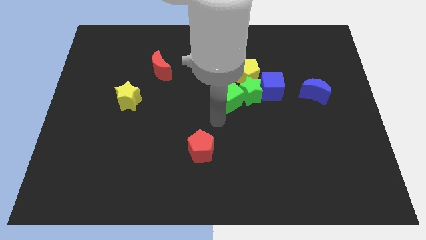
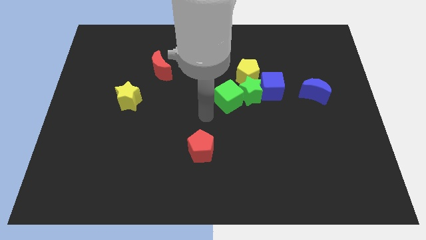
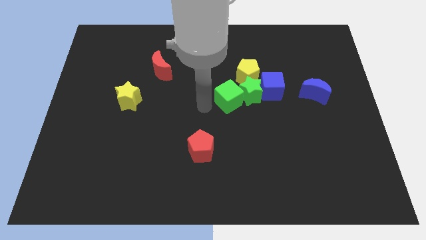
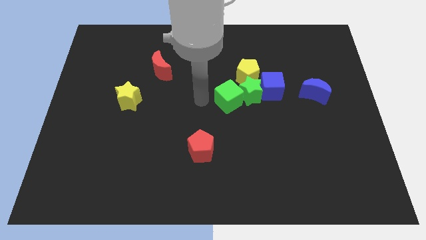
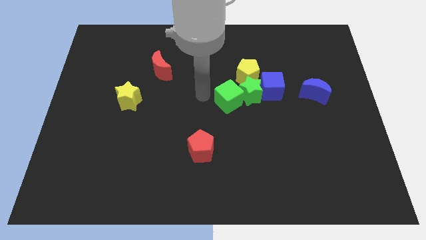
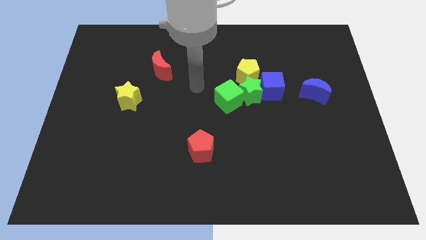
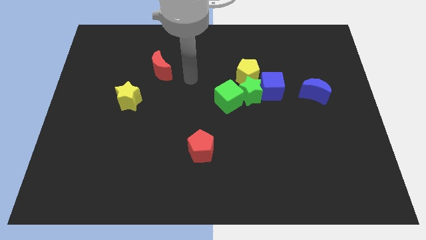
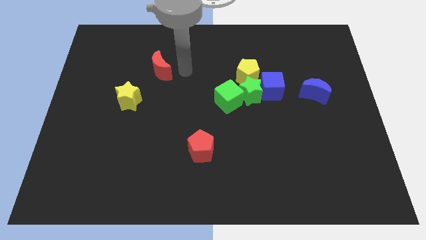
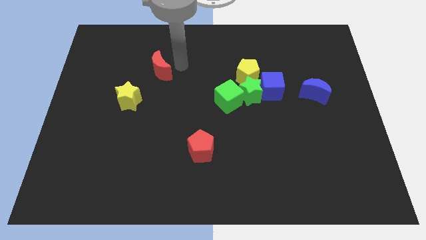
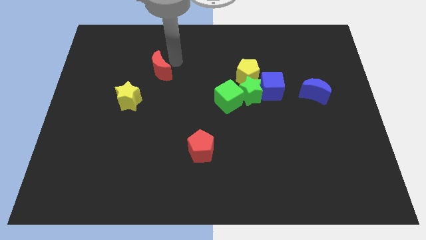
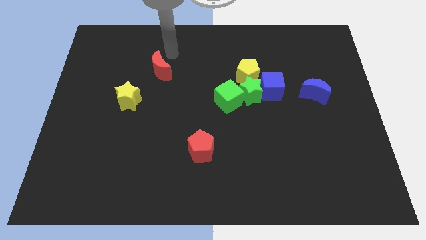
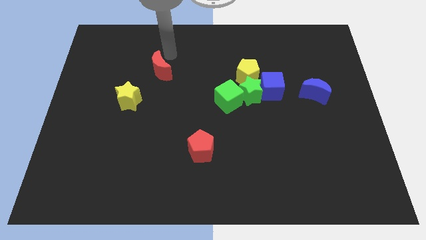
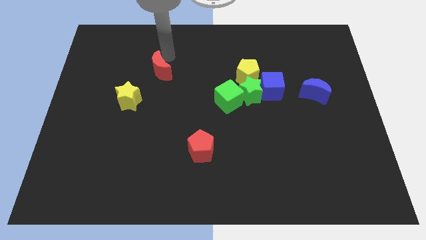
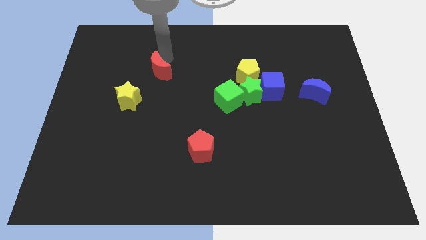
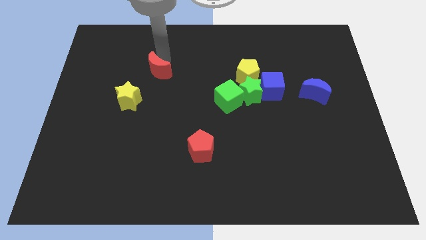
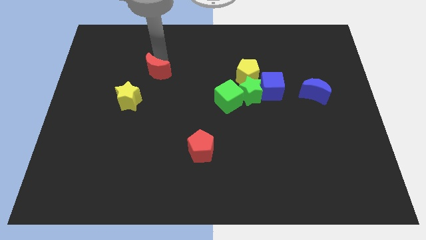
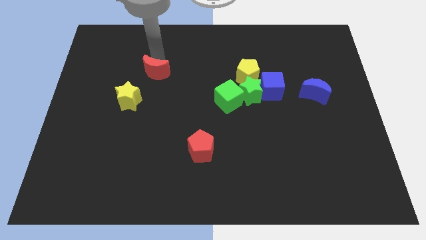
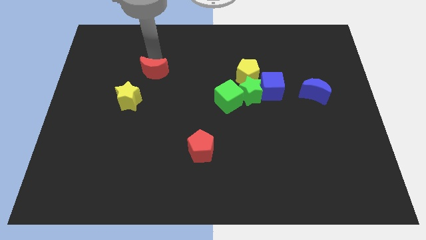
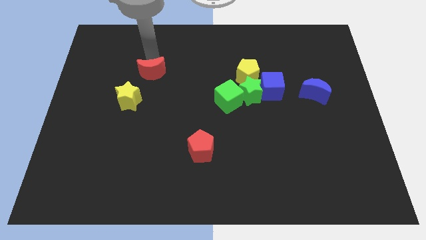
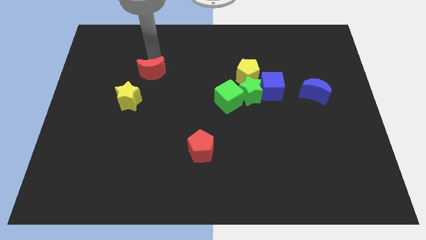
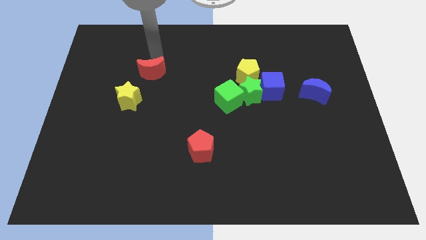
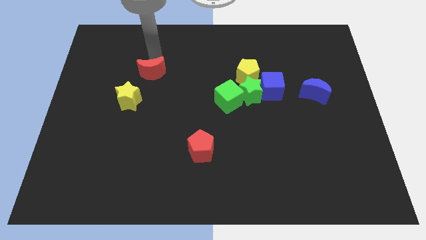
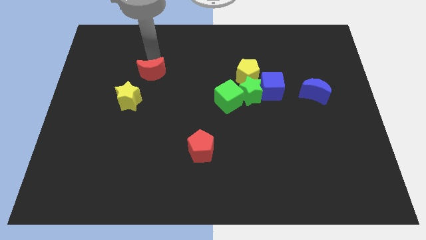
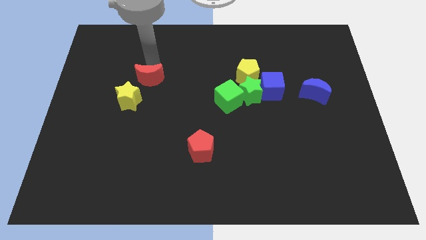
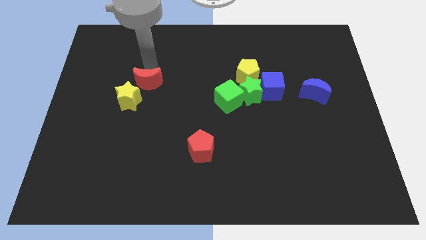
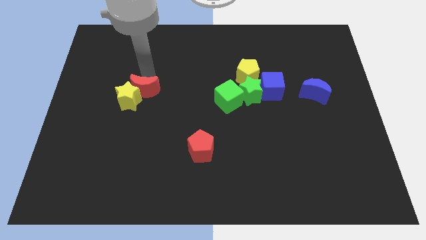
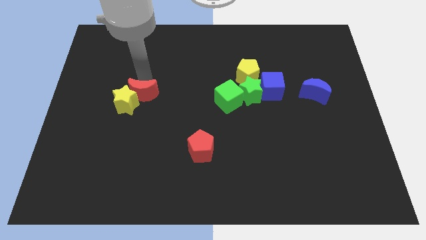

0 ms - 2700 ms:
slide the red moon downwards a little bit

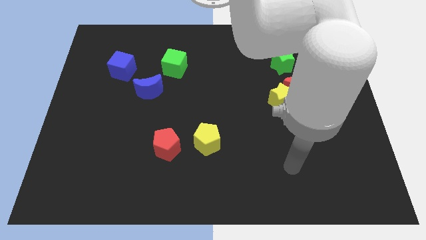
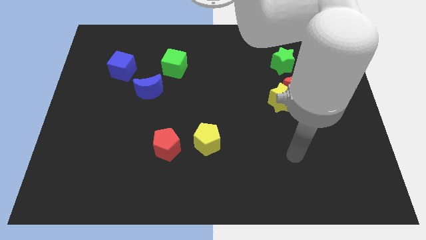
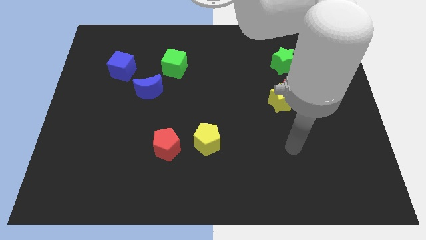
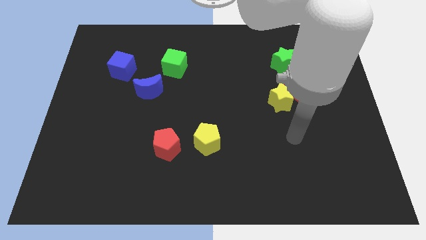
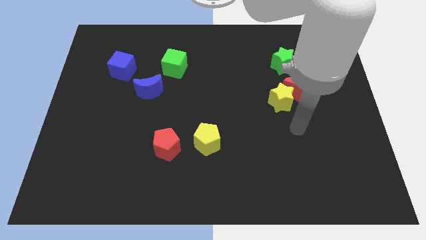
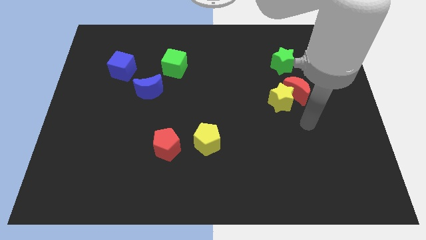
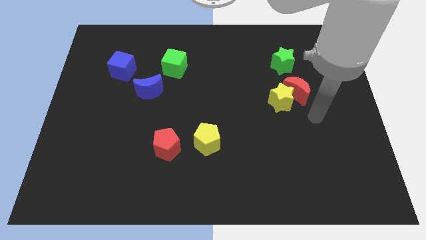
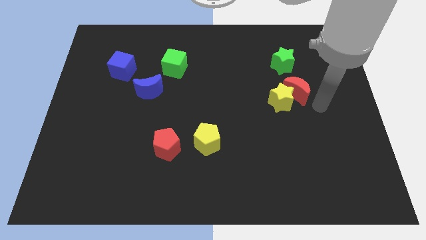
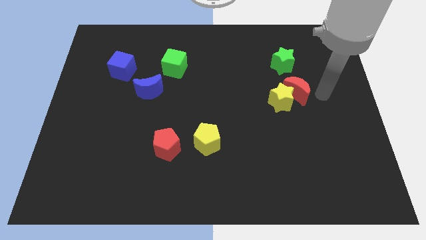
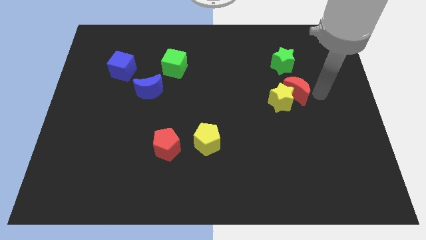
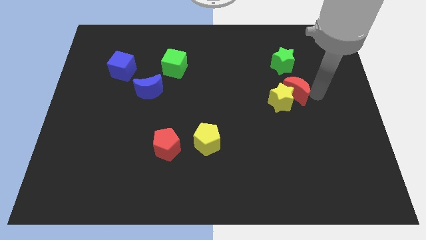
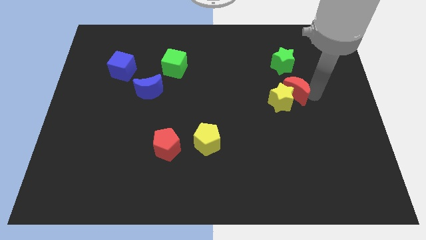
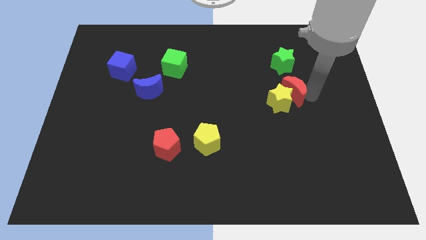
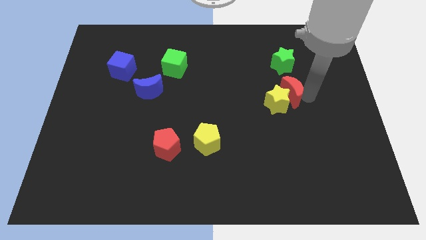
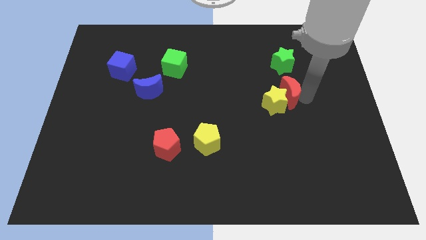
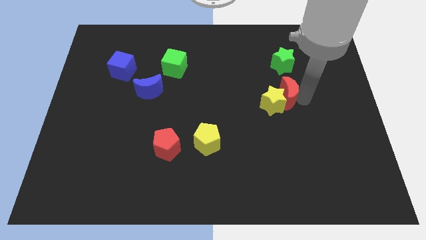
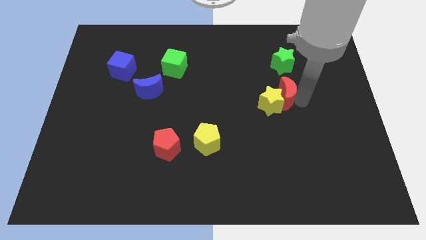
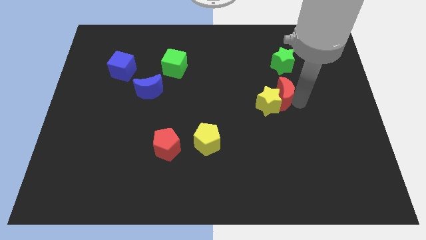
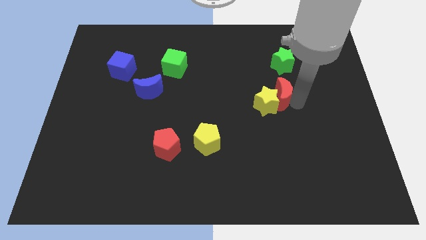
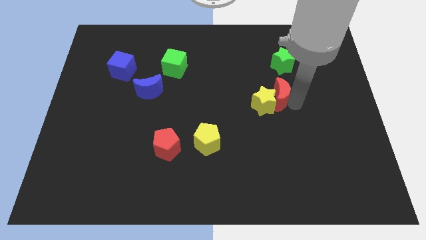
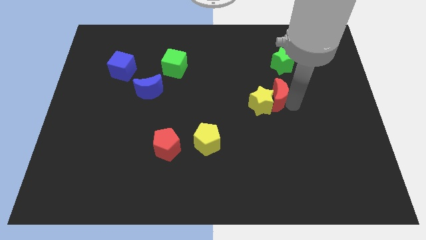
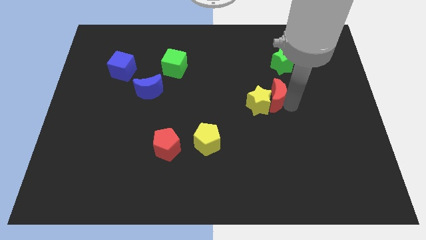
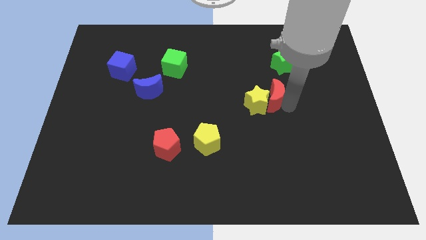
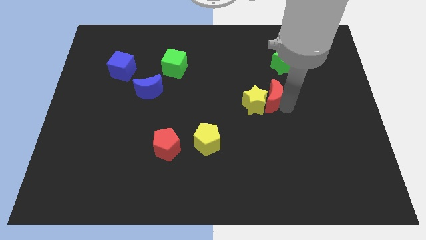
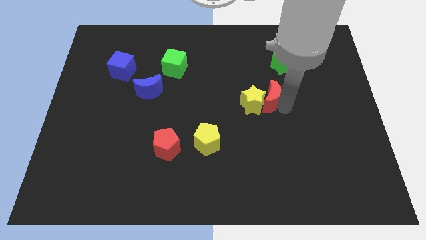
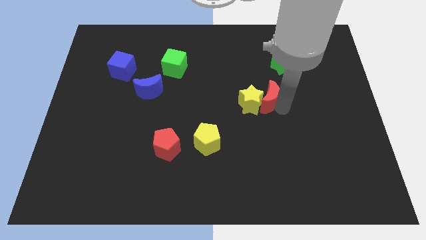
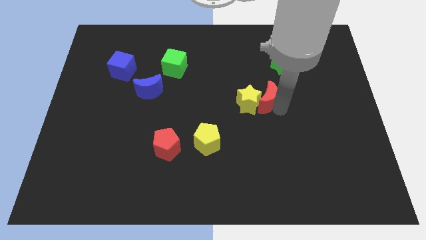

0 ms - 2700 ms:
slightly push the red moon left

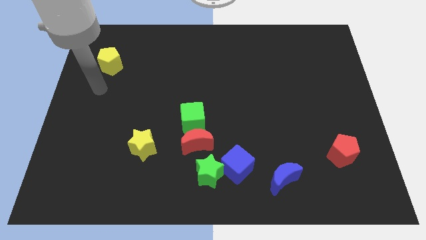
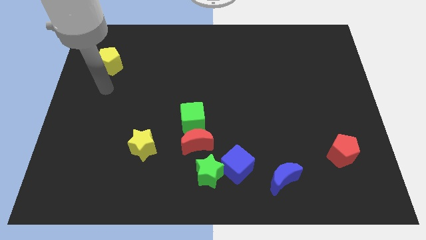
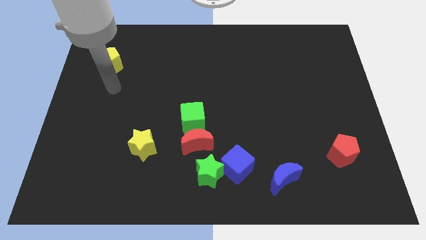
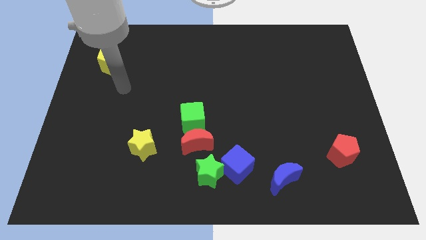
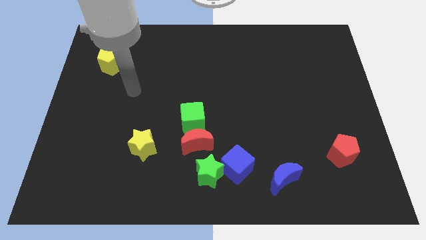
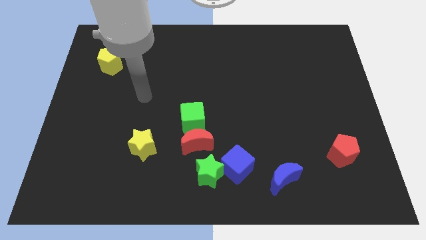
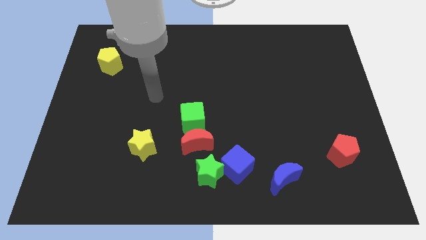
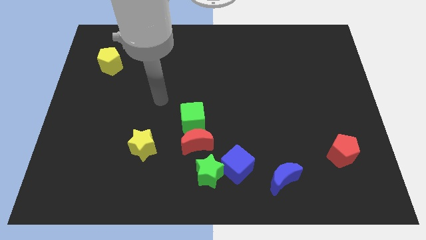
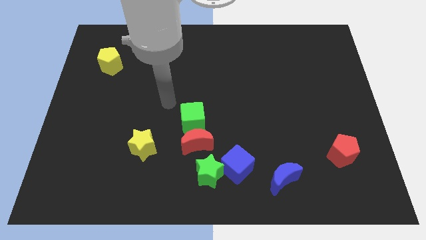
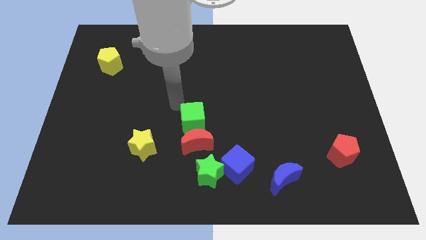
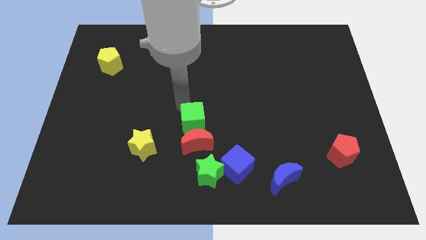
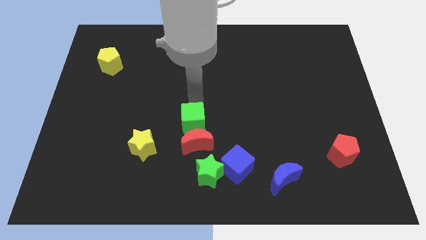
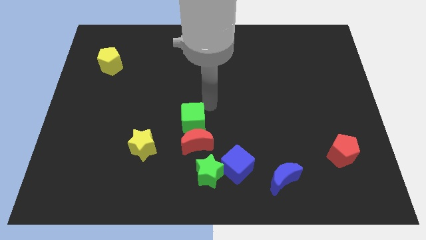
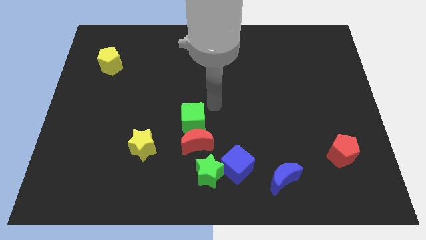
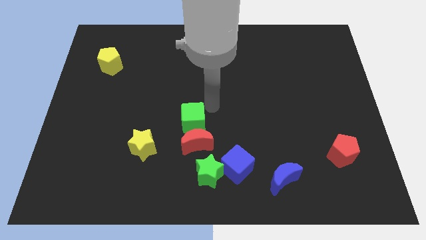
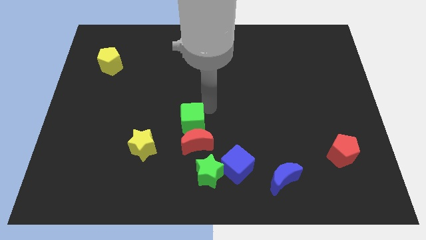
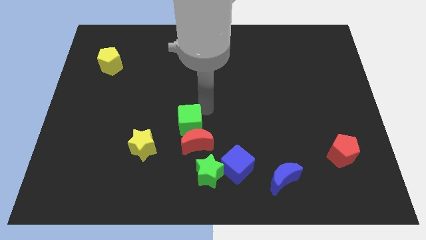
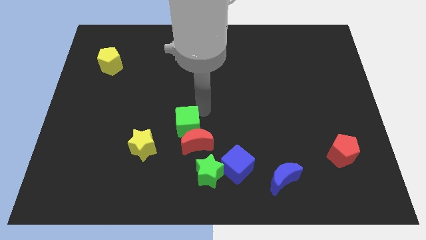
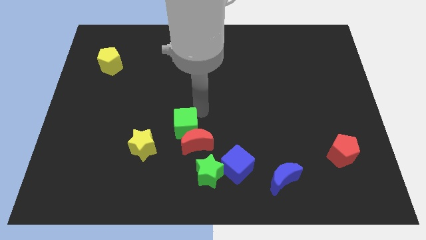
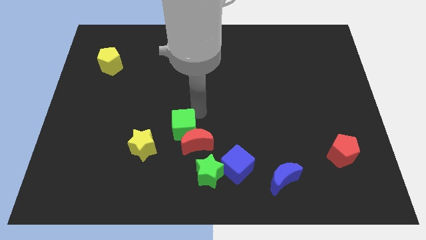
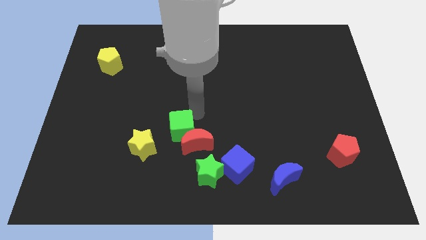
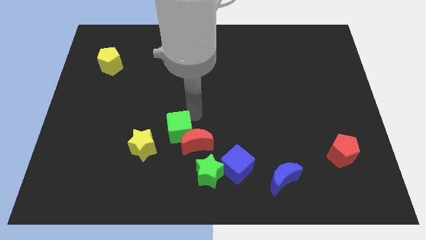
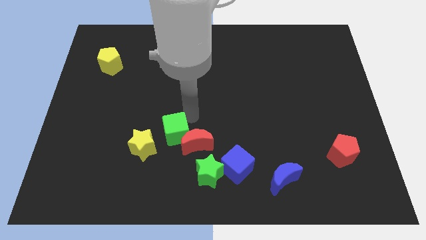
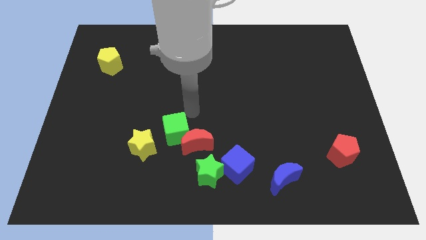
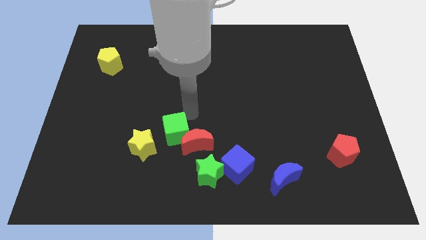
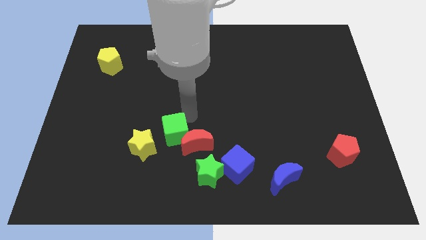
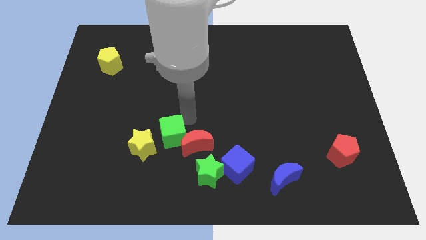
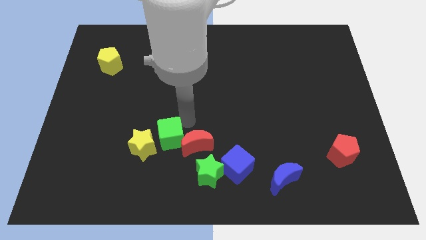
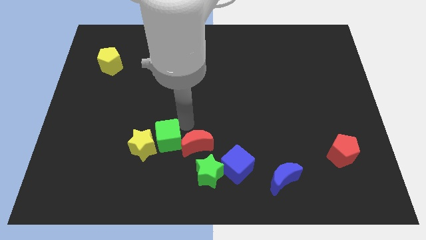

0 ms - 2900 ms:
slide the green cube down and then left a little bit
